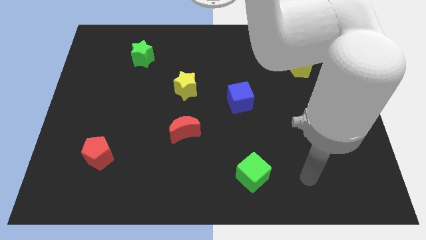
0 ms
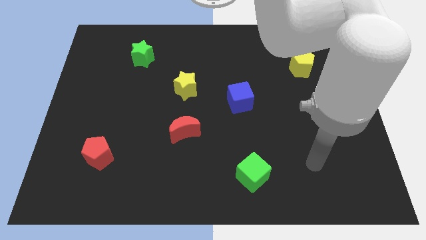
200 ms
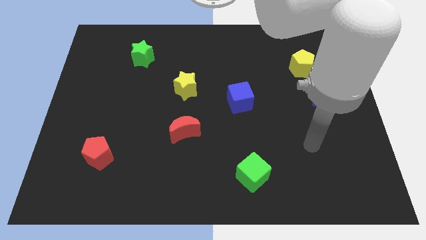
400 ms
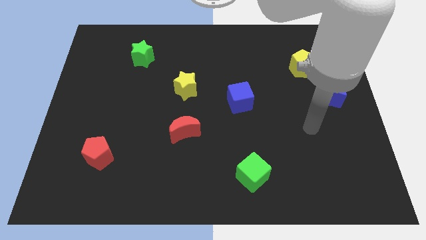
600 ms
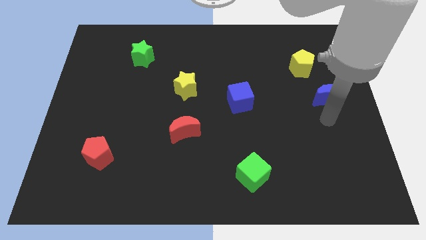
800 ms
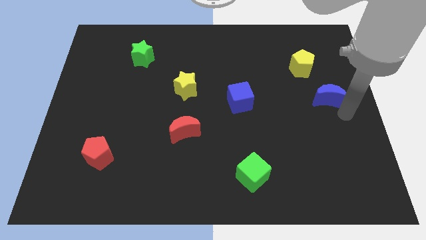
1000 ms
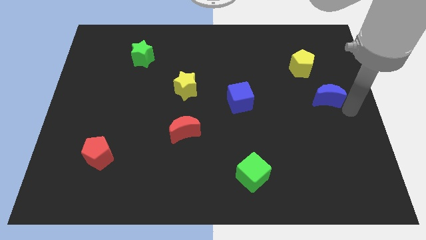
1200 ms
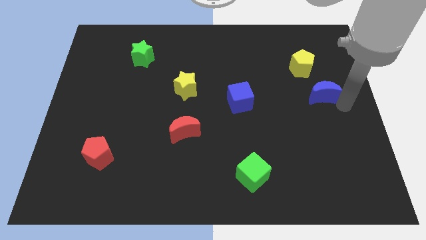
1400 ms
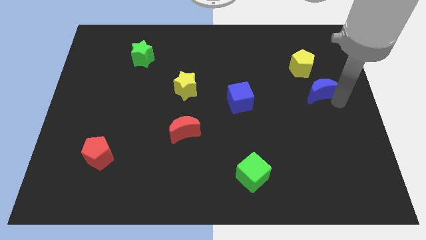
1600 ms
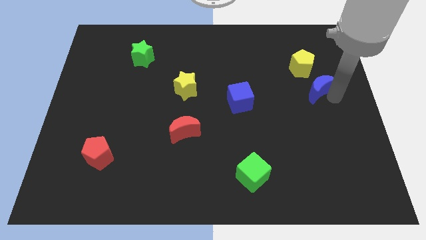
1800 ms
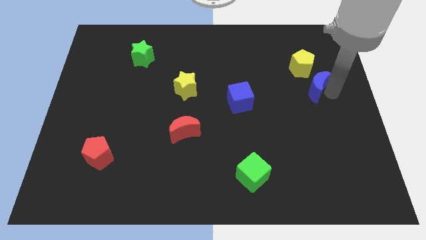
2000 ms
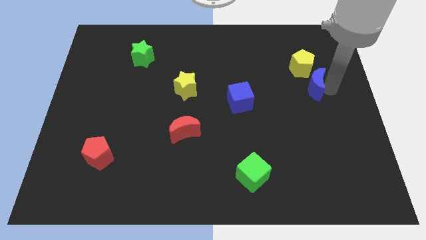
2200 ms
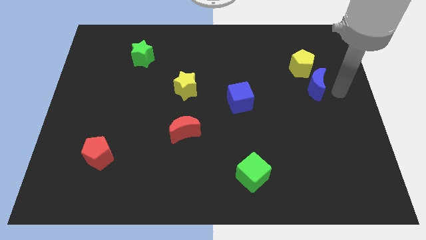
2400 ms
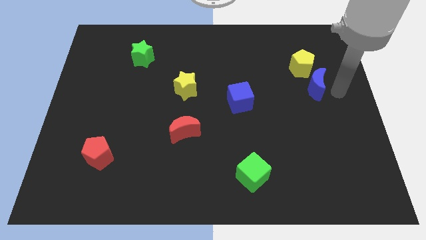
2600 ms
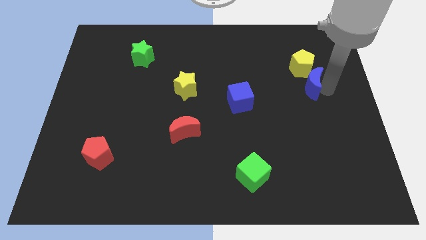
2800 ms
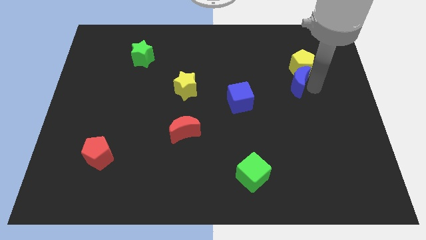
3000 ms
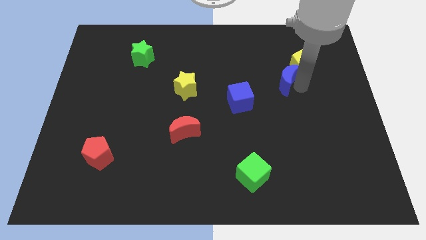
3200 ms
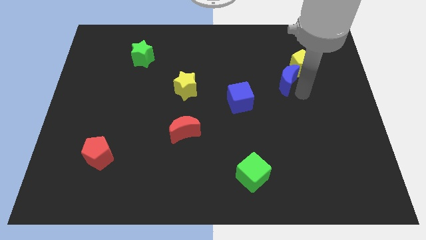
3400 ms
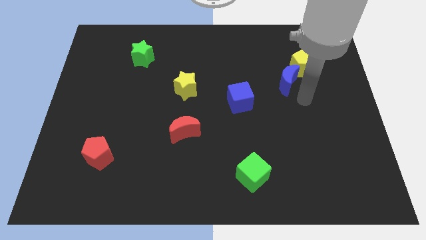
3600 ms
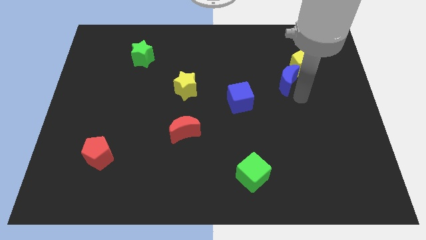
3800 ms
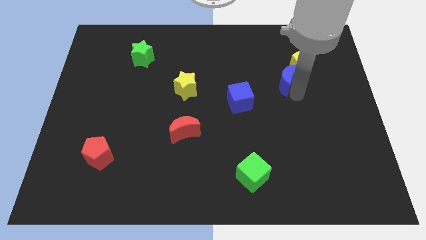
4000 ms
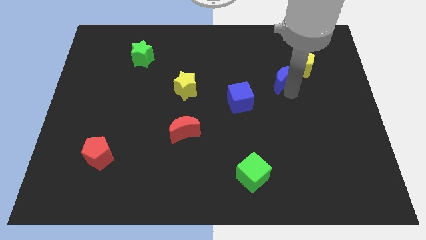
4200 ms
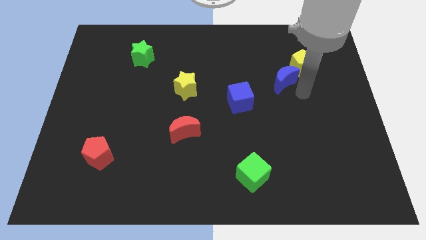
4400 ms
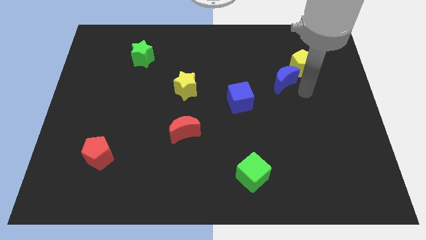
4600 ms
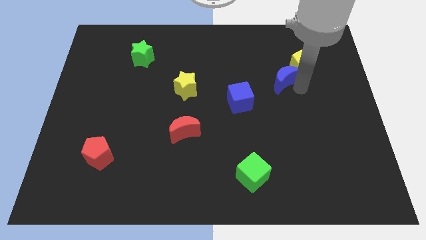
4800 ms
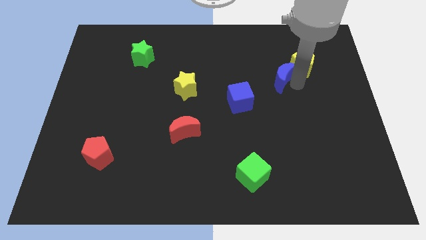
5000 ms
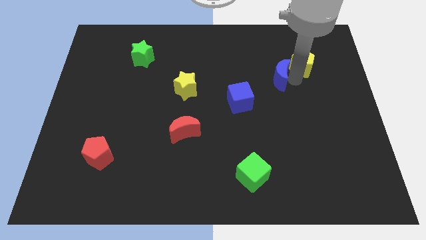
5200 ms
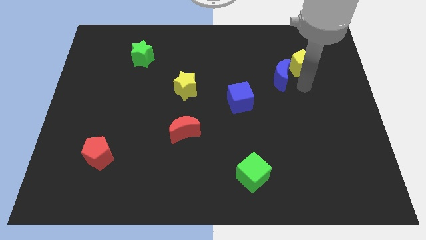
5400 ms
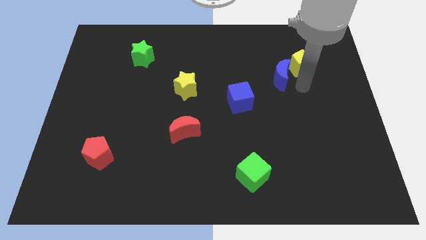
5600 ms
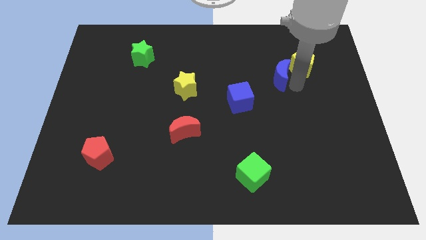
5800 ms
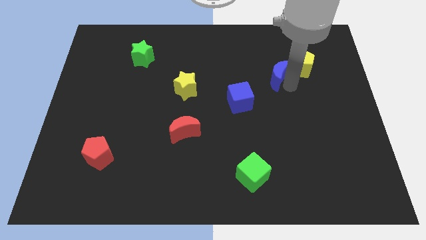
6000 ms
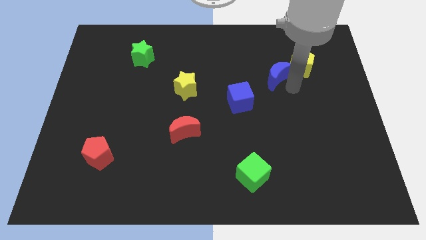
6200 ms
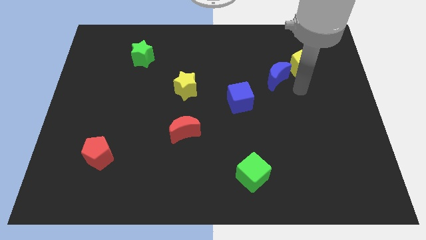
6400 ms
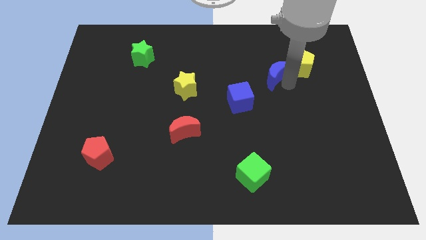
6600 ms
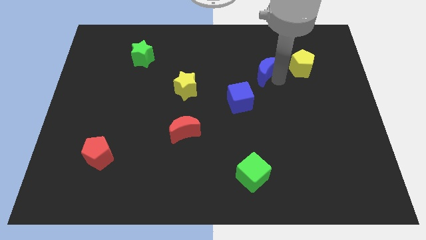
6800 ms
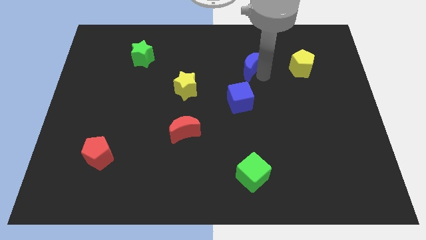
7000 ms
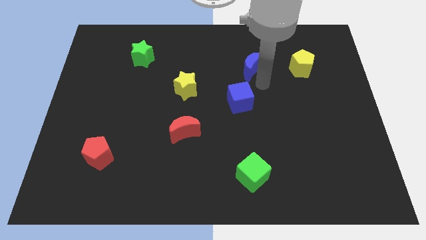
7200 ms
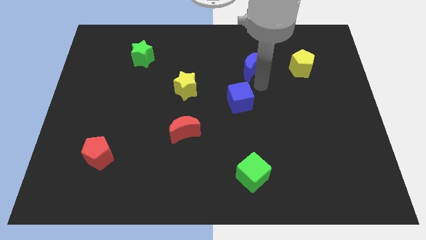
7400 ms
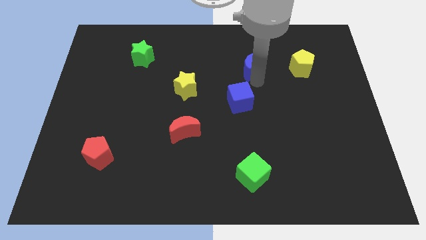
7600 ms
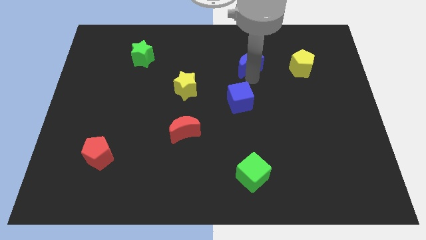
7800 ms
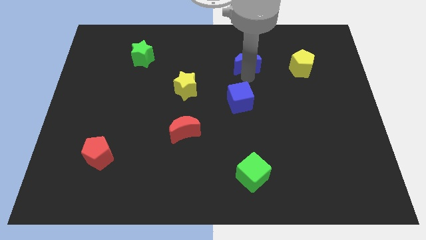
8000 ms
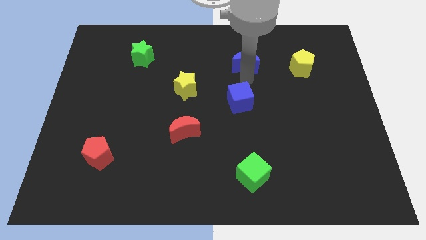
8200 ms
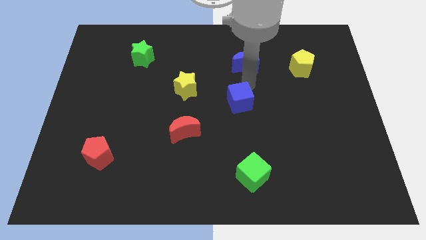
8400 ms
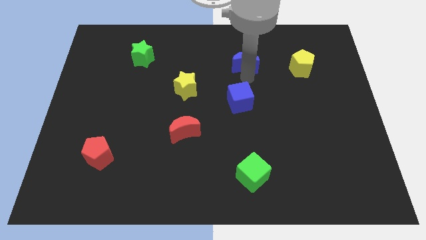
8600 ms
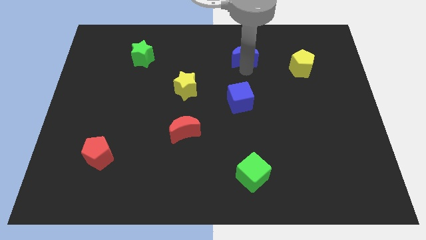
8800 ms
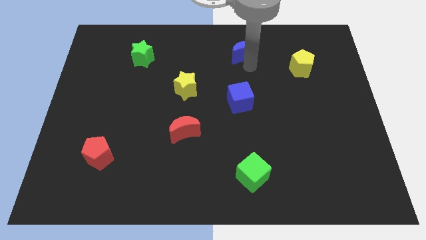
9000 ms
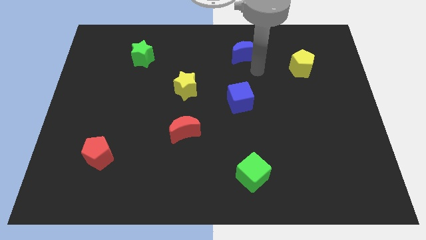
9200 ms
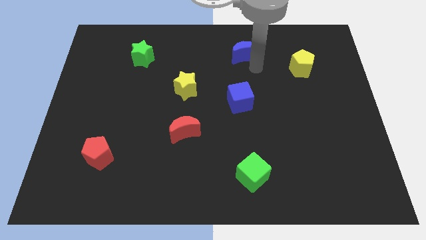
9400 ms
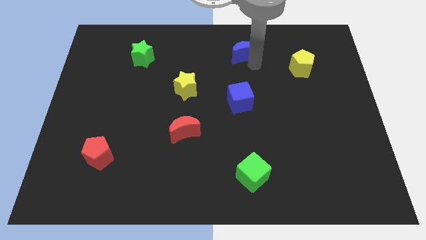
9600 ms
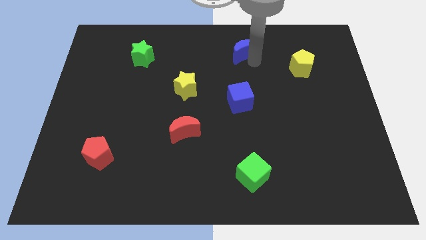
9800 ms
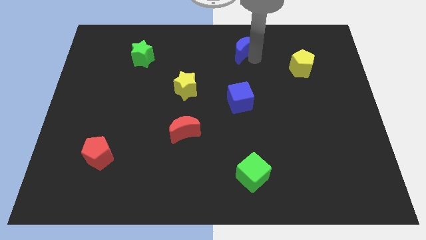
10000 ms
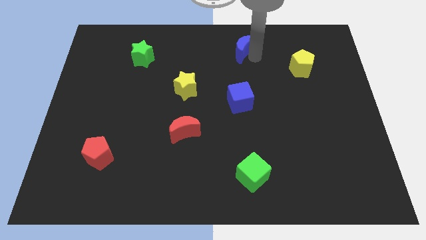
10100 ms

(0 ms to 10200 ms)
put the blue moon to the top

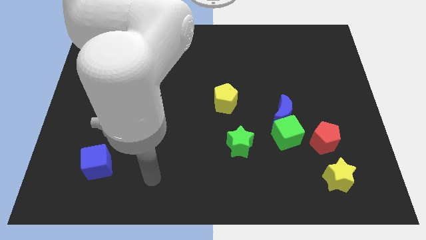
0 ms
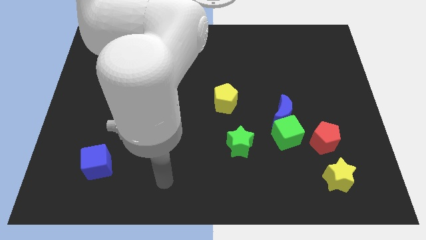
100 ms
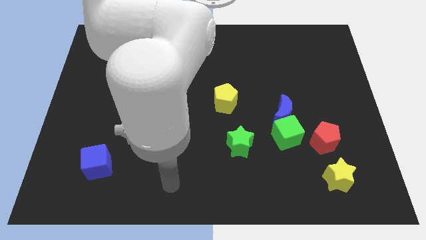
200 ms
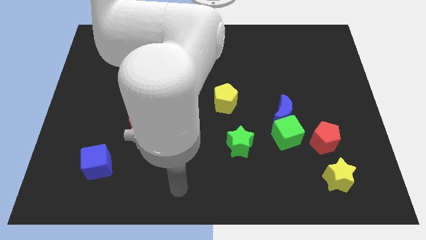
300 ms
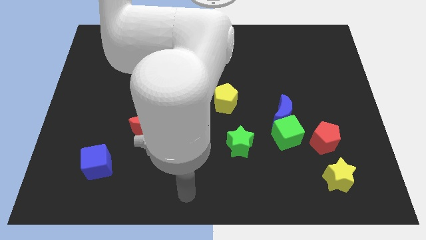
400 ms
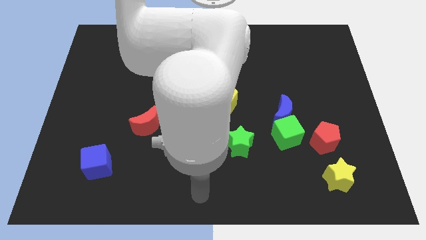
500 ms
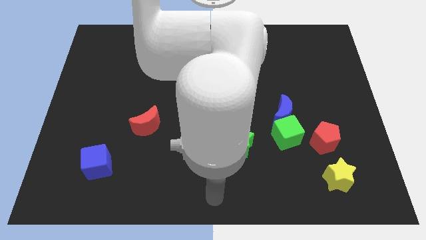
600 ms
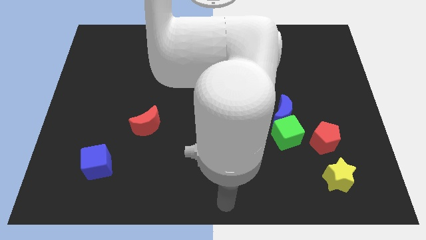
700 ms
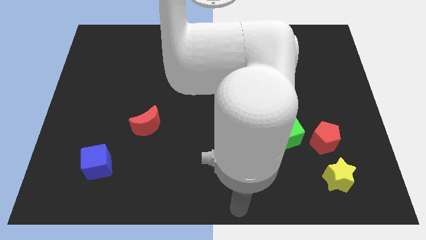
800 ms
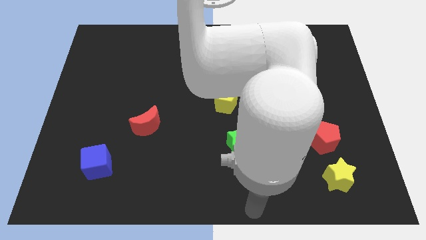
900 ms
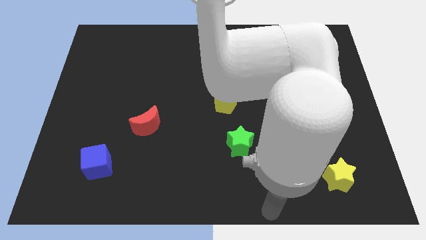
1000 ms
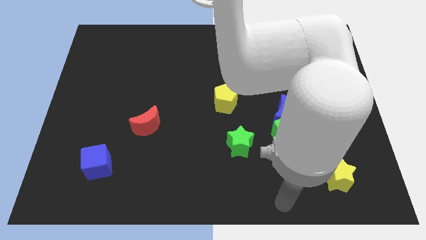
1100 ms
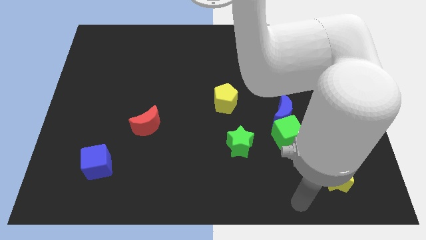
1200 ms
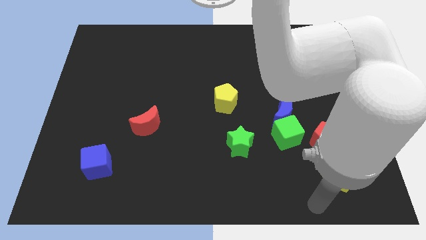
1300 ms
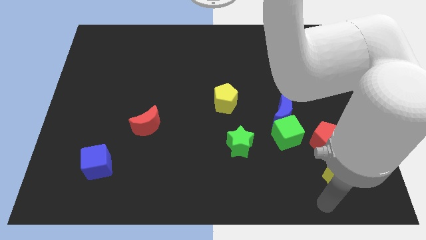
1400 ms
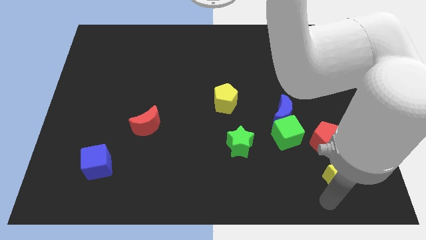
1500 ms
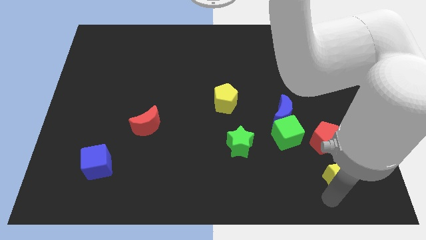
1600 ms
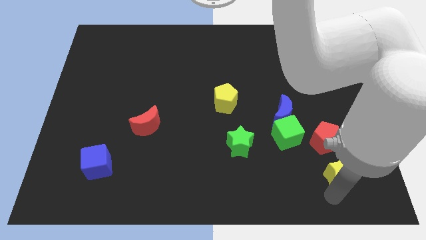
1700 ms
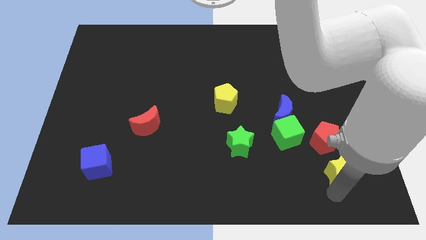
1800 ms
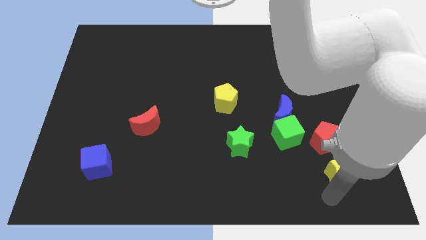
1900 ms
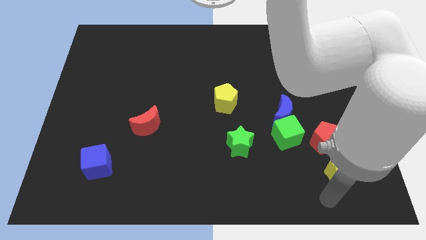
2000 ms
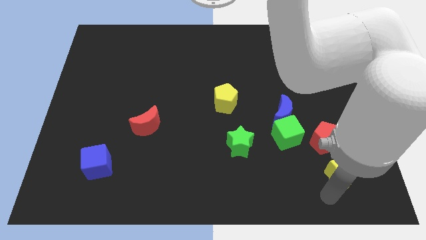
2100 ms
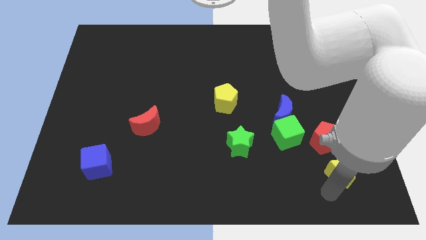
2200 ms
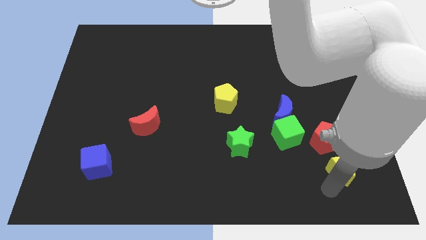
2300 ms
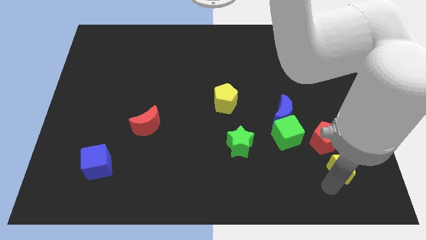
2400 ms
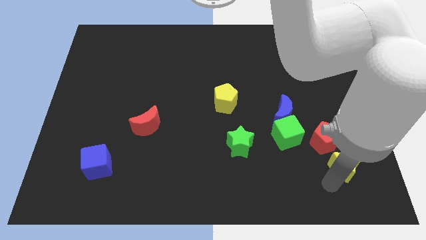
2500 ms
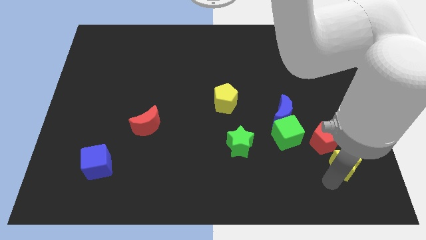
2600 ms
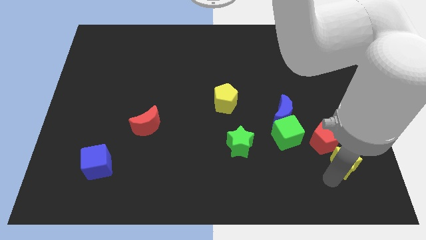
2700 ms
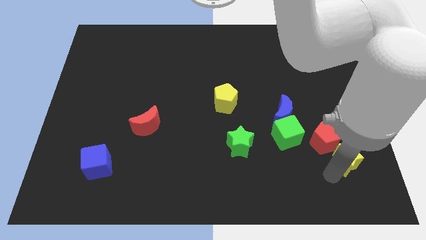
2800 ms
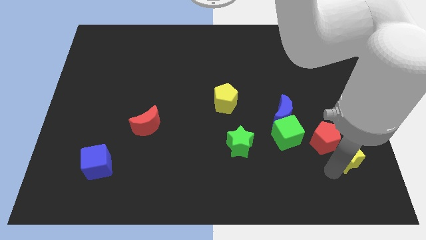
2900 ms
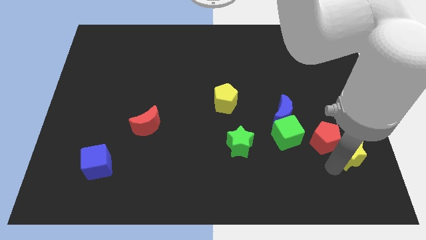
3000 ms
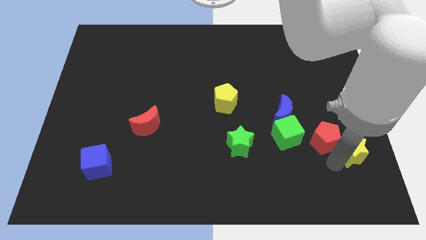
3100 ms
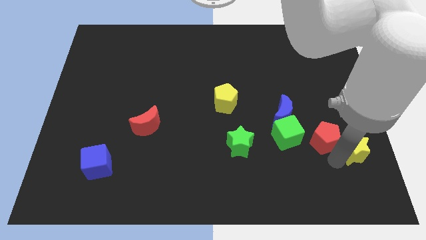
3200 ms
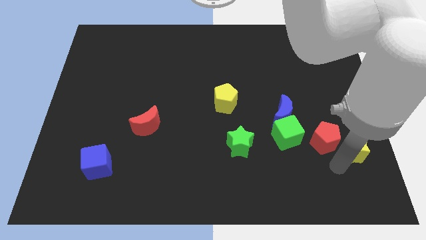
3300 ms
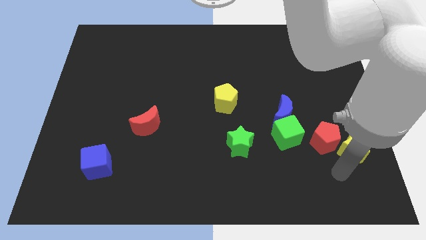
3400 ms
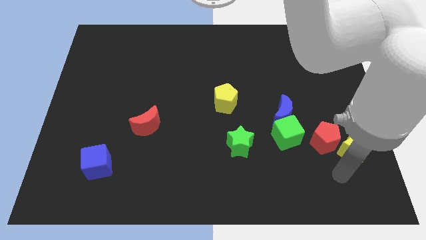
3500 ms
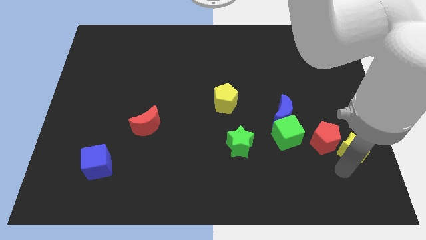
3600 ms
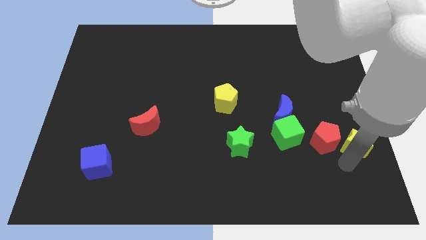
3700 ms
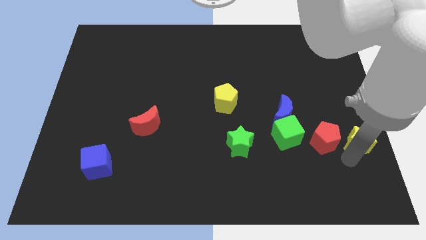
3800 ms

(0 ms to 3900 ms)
slide the yellow star to the right side
